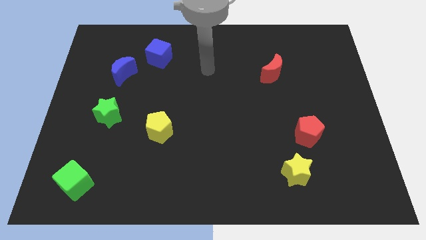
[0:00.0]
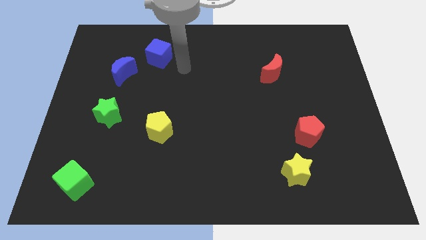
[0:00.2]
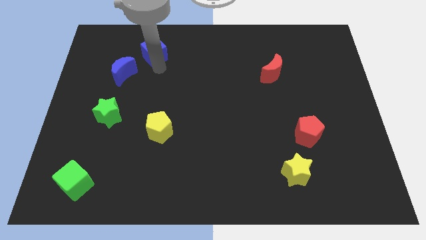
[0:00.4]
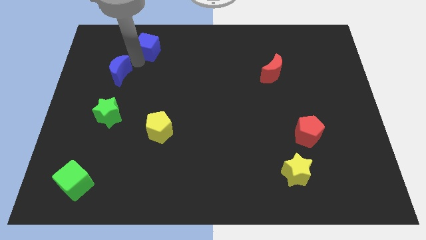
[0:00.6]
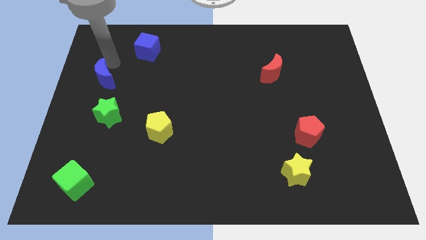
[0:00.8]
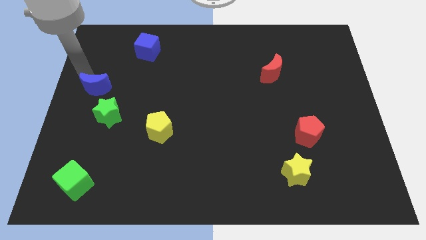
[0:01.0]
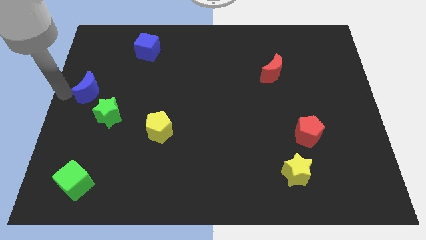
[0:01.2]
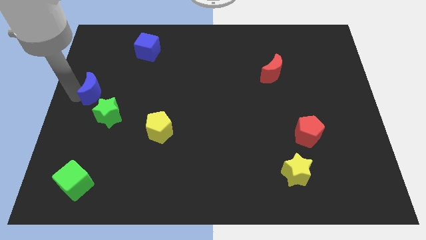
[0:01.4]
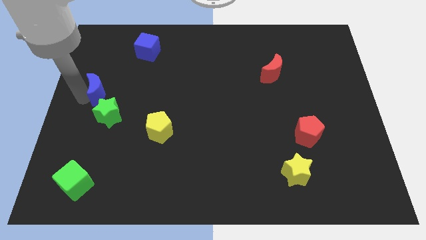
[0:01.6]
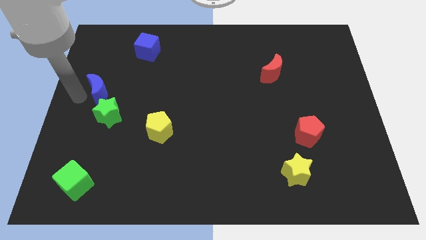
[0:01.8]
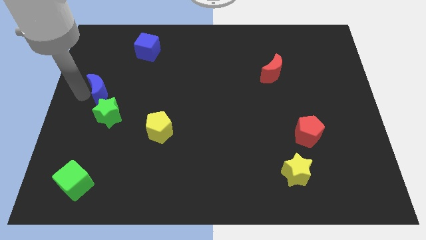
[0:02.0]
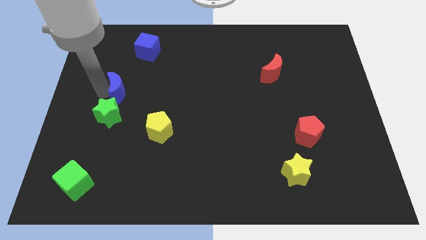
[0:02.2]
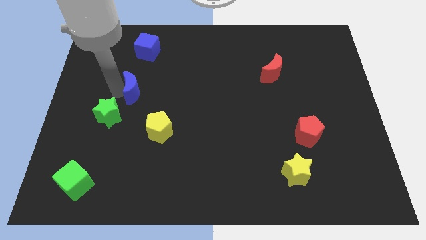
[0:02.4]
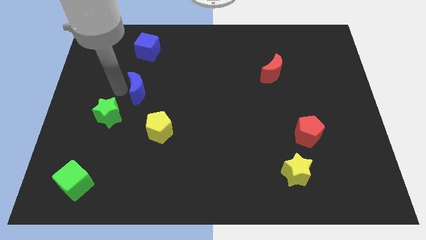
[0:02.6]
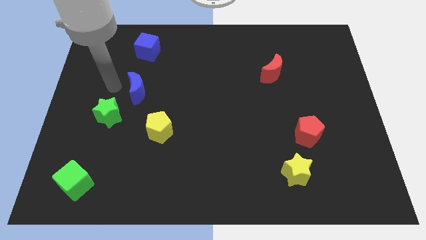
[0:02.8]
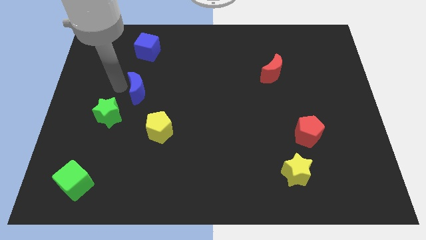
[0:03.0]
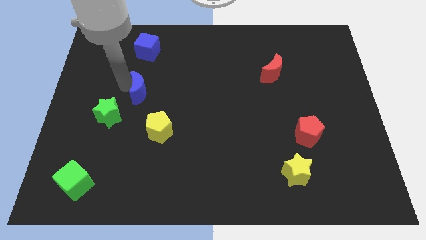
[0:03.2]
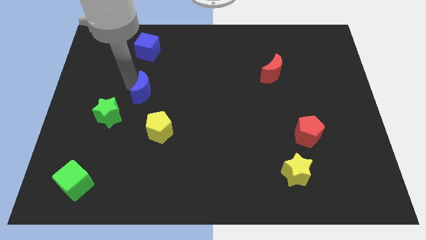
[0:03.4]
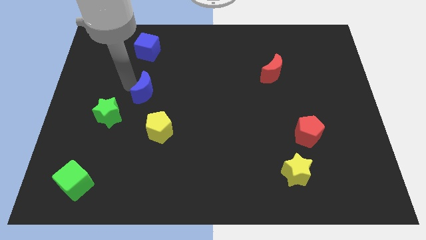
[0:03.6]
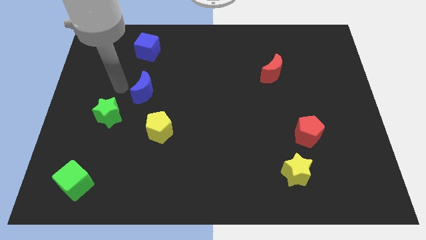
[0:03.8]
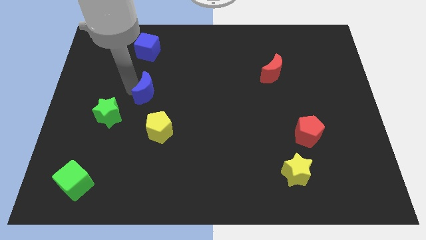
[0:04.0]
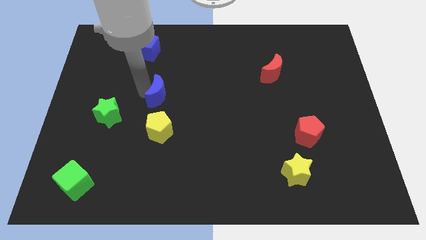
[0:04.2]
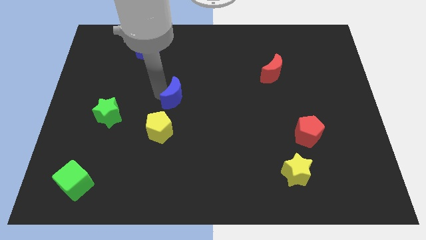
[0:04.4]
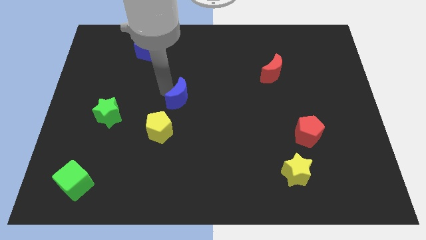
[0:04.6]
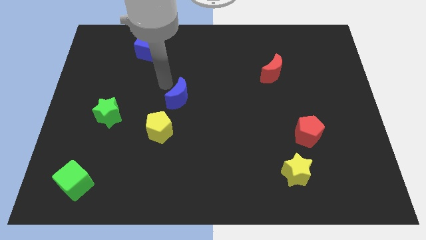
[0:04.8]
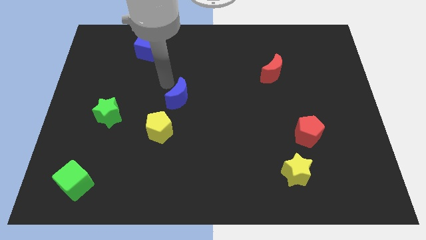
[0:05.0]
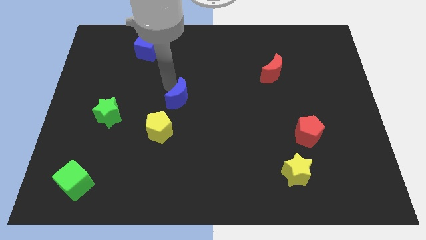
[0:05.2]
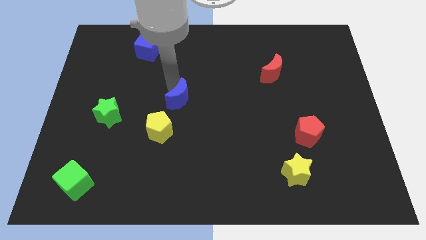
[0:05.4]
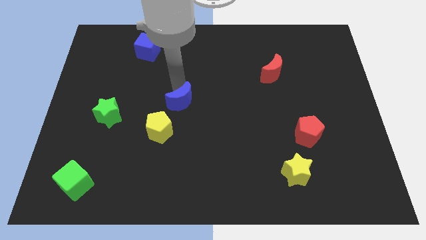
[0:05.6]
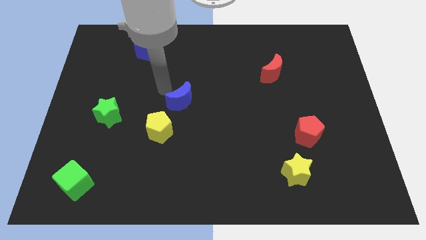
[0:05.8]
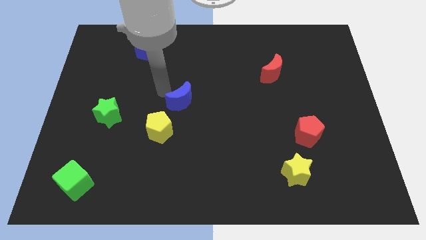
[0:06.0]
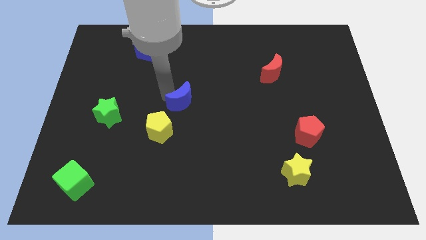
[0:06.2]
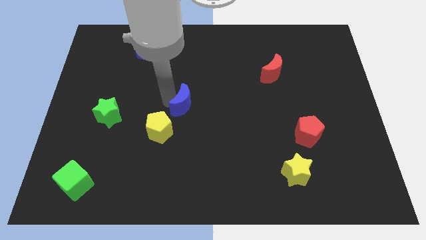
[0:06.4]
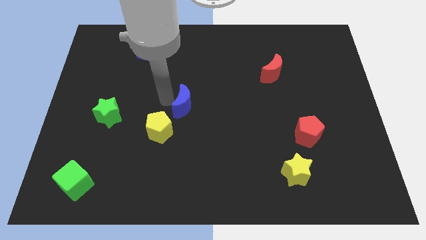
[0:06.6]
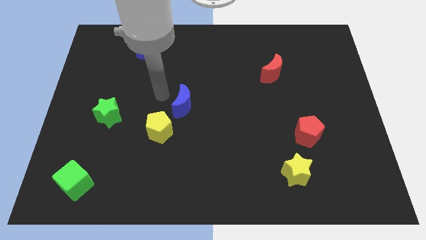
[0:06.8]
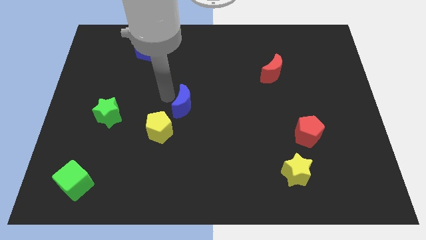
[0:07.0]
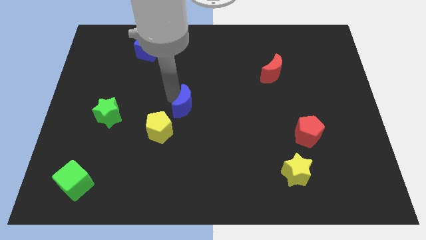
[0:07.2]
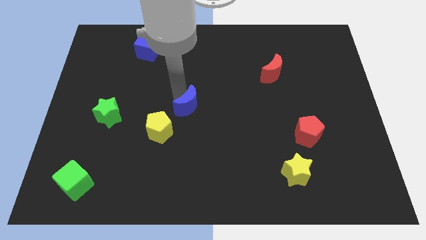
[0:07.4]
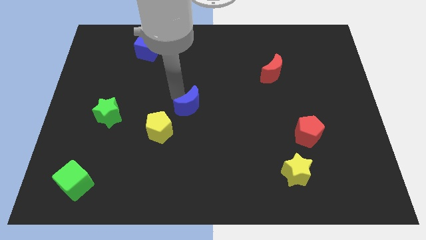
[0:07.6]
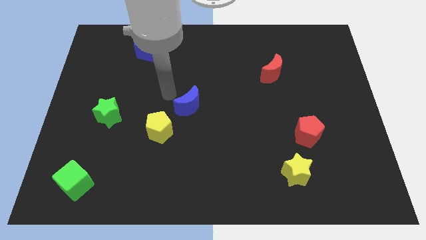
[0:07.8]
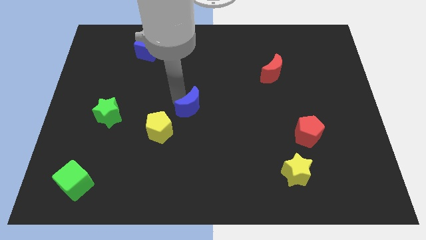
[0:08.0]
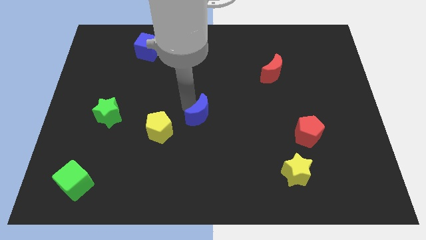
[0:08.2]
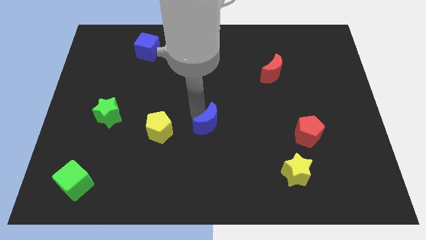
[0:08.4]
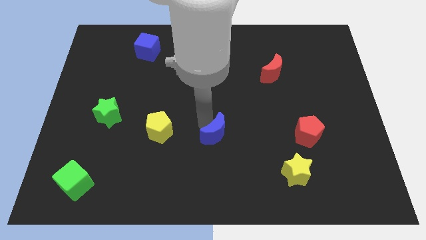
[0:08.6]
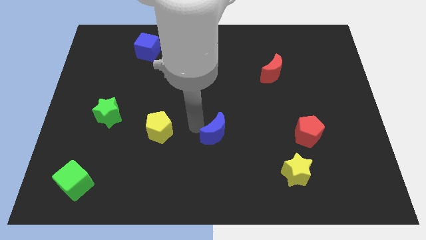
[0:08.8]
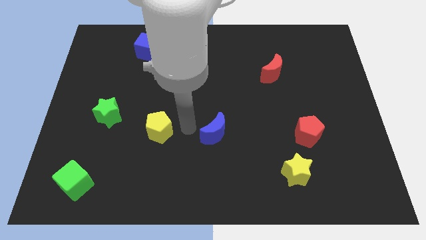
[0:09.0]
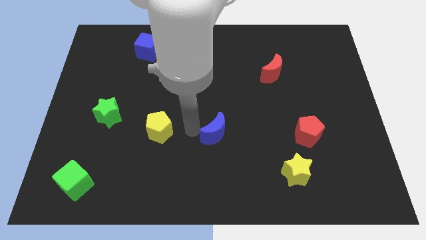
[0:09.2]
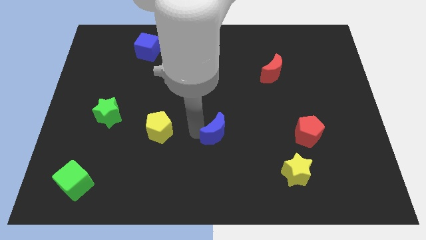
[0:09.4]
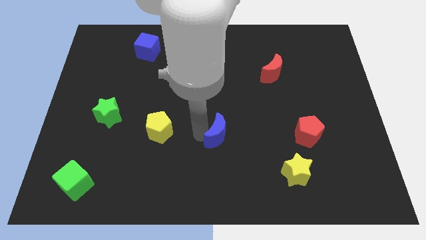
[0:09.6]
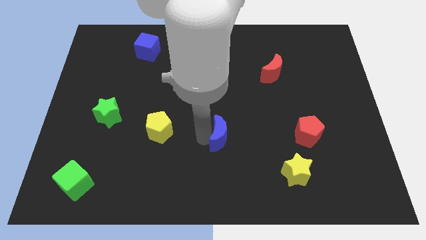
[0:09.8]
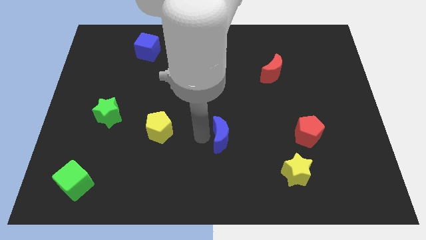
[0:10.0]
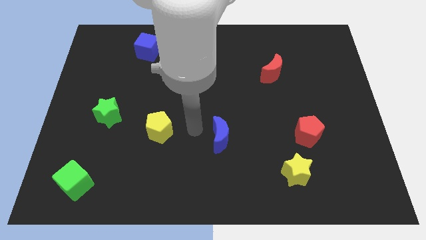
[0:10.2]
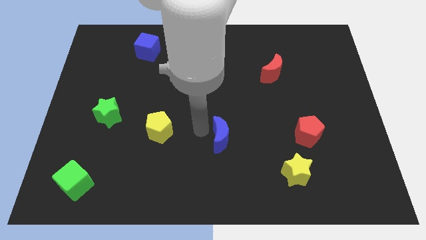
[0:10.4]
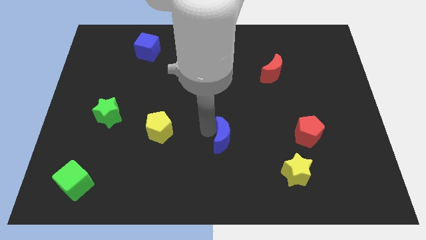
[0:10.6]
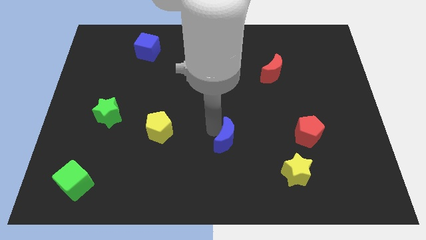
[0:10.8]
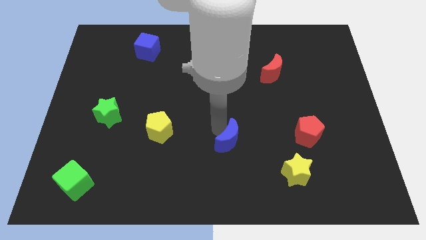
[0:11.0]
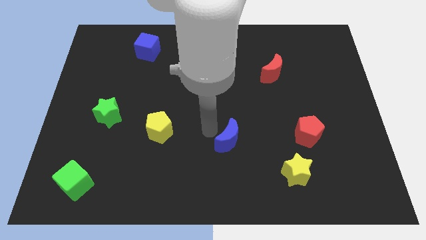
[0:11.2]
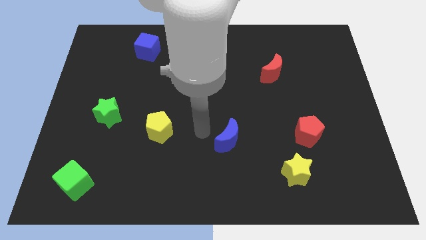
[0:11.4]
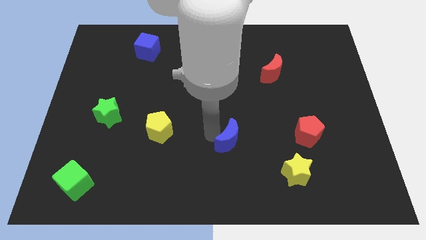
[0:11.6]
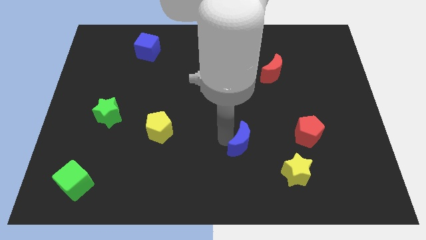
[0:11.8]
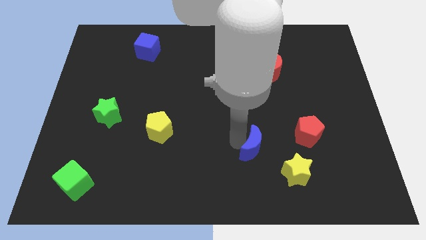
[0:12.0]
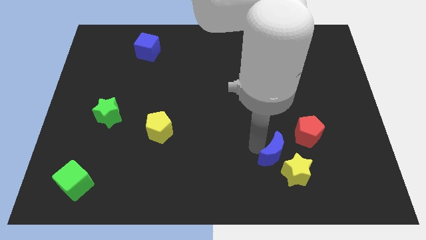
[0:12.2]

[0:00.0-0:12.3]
move the blue moon close to the yellow star

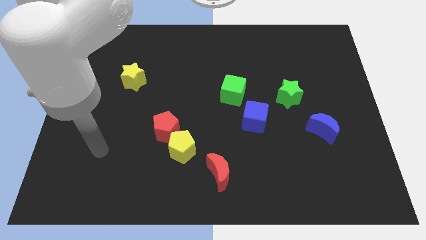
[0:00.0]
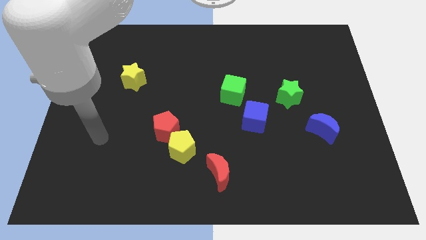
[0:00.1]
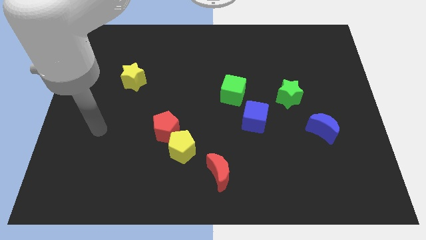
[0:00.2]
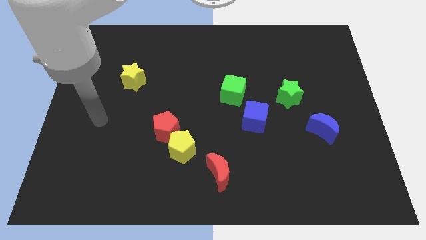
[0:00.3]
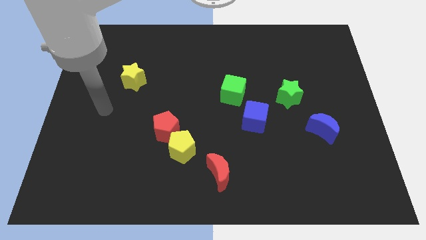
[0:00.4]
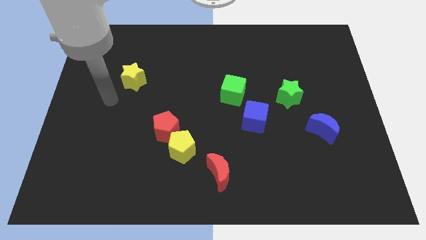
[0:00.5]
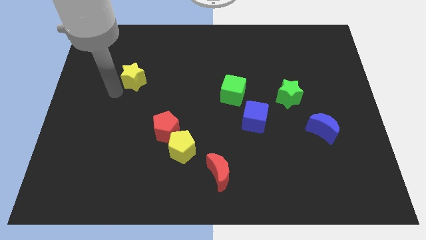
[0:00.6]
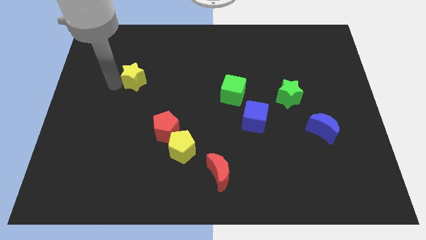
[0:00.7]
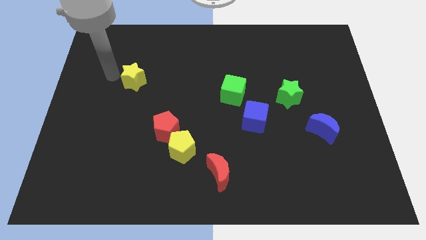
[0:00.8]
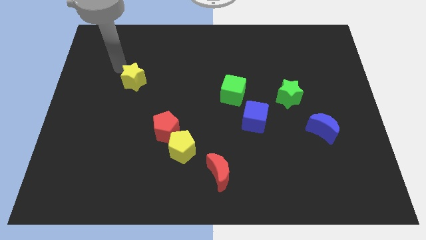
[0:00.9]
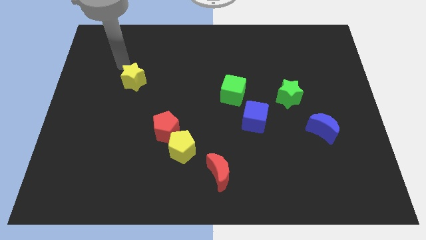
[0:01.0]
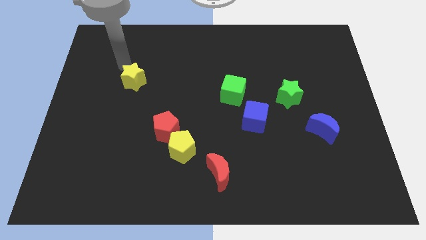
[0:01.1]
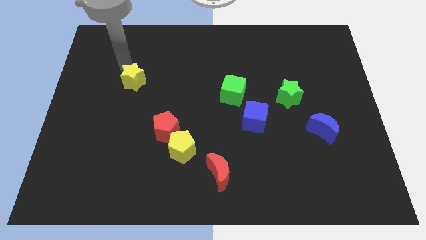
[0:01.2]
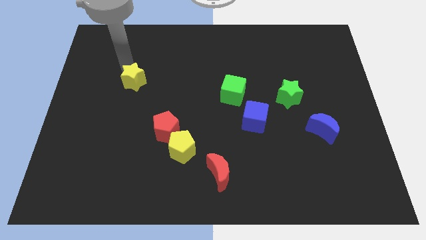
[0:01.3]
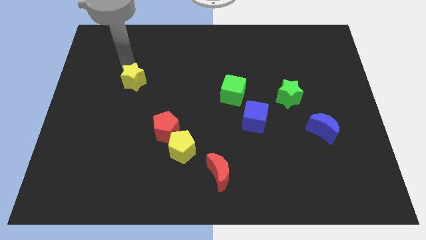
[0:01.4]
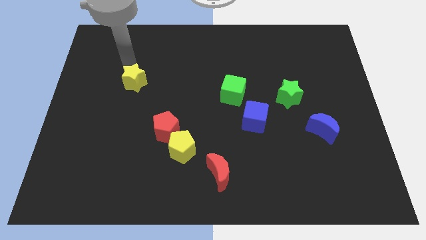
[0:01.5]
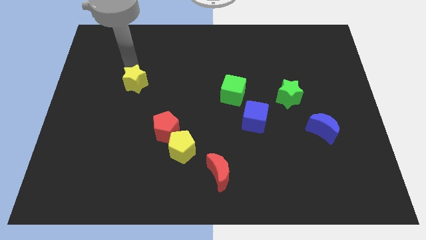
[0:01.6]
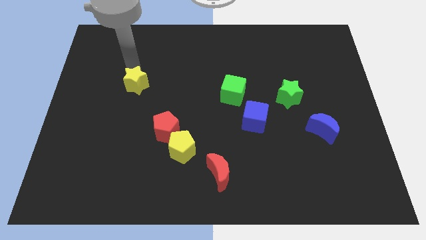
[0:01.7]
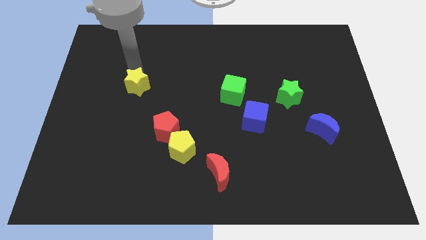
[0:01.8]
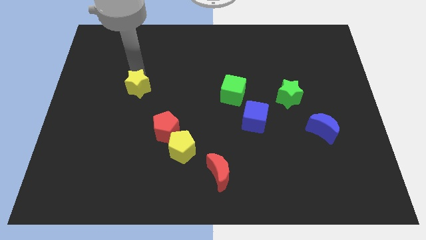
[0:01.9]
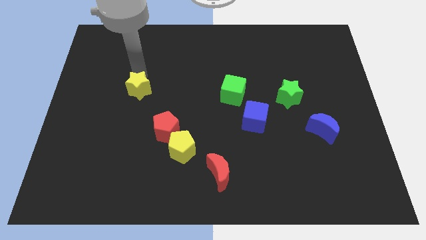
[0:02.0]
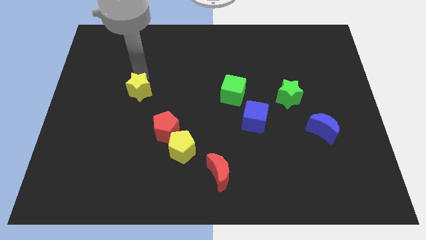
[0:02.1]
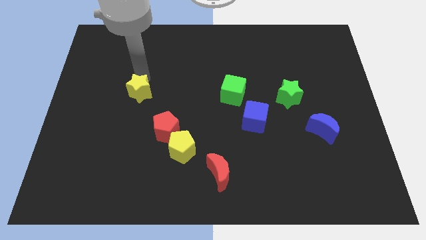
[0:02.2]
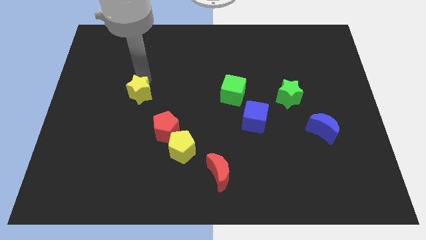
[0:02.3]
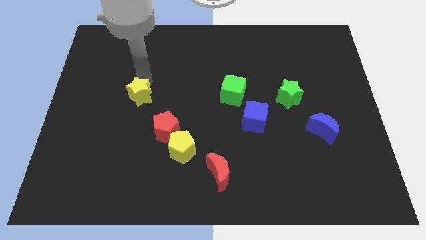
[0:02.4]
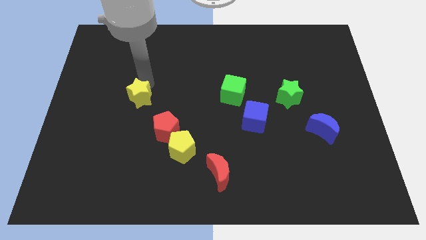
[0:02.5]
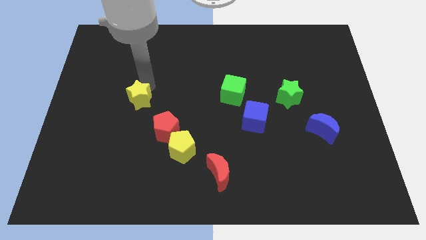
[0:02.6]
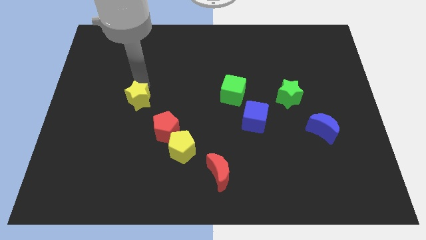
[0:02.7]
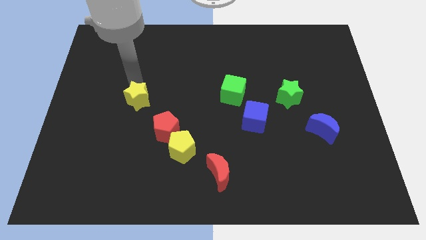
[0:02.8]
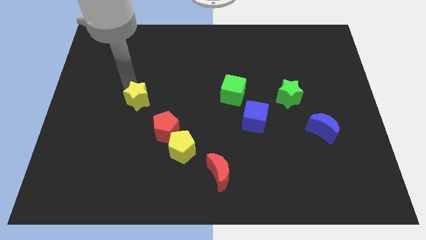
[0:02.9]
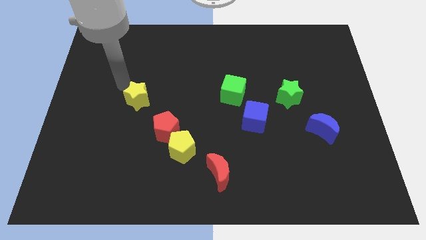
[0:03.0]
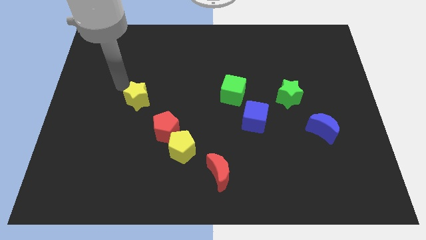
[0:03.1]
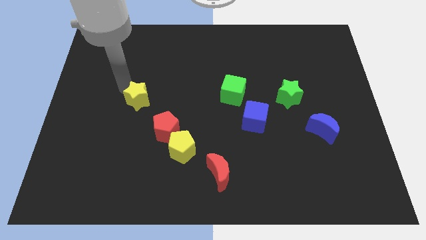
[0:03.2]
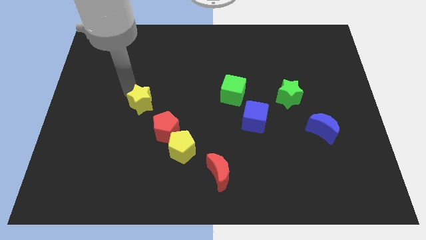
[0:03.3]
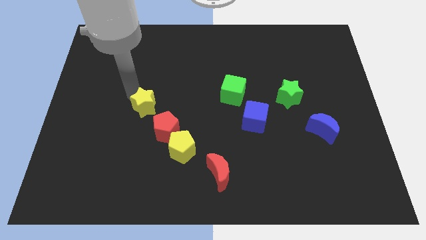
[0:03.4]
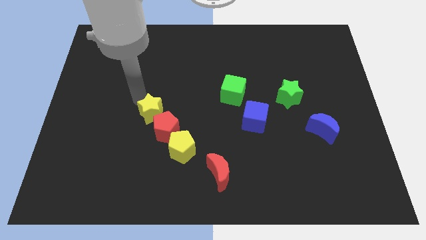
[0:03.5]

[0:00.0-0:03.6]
move the yellow star to the red pentagon
